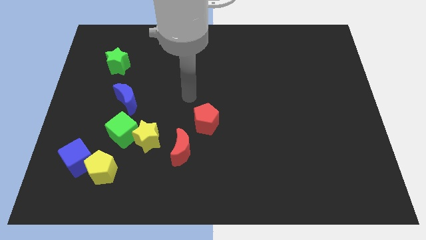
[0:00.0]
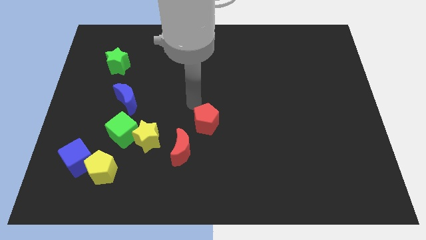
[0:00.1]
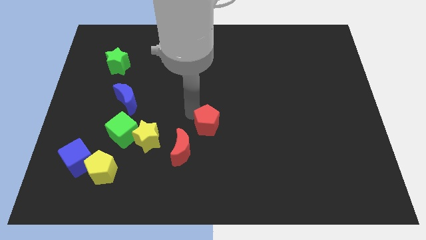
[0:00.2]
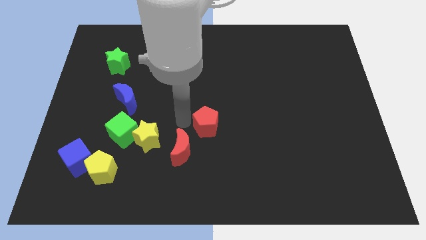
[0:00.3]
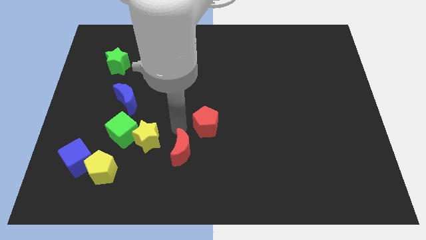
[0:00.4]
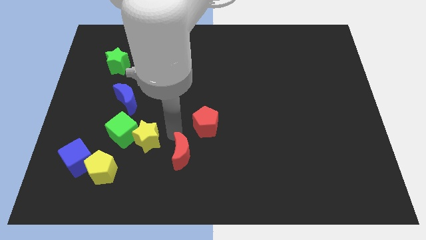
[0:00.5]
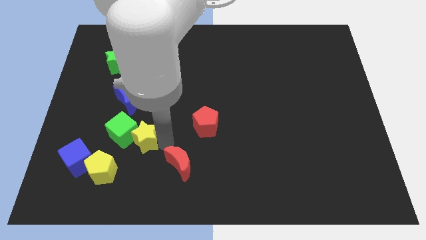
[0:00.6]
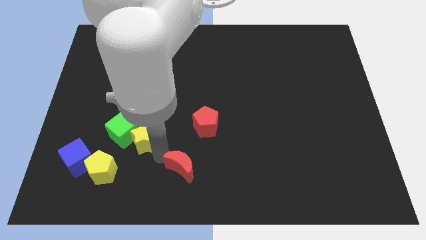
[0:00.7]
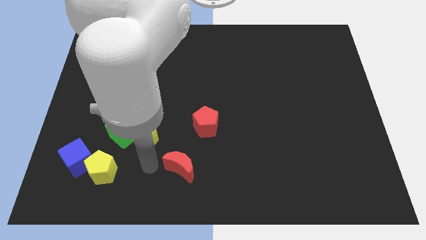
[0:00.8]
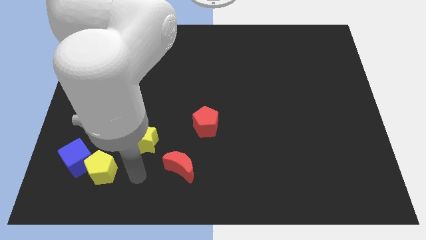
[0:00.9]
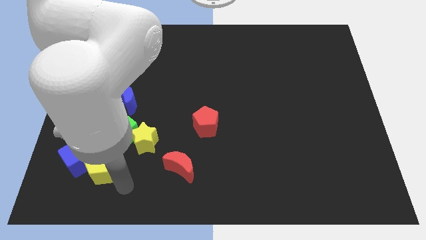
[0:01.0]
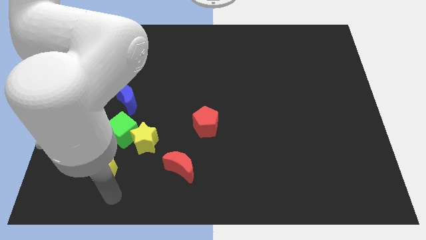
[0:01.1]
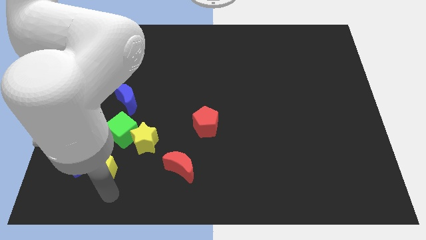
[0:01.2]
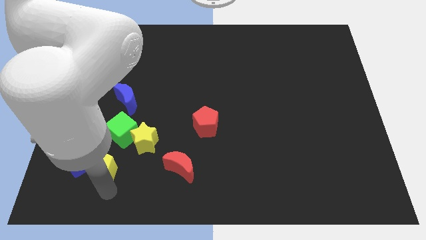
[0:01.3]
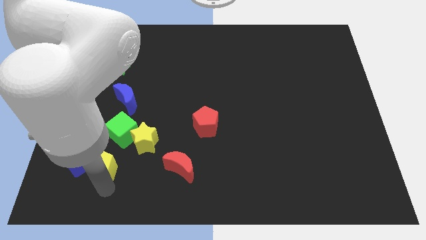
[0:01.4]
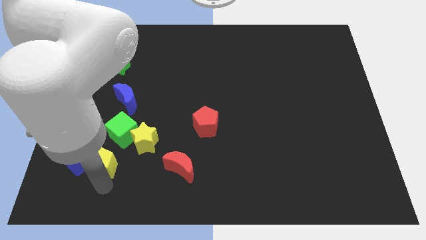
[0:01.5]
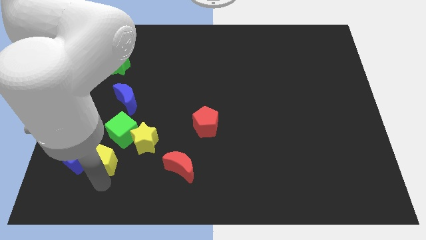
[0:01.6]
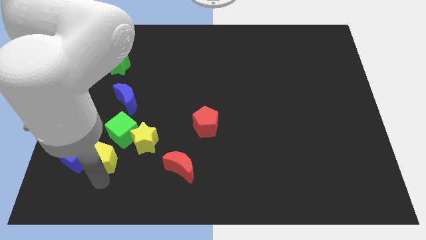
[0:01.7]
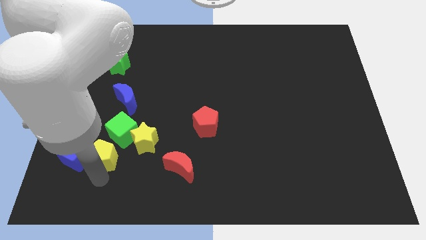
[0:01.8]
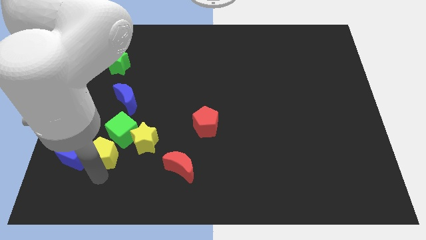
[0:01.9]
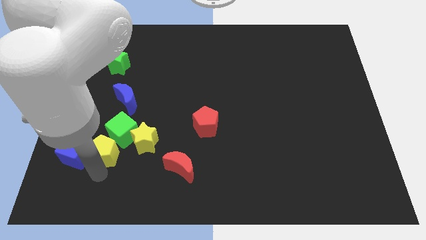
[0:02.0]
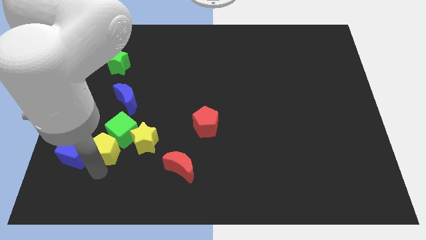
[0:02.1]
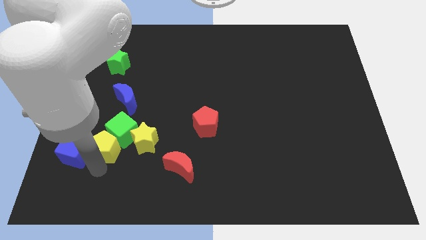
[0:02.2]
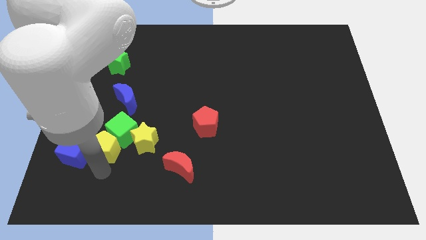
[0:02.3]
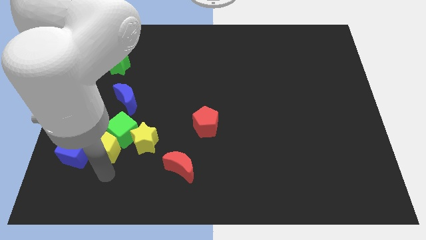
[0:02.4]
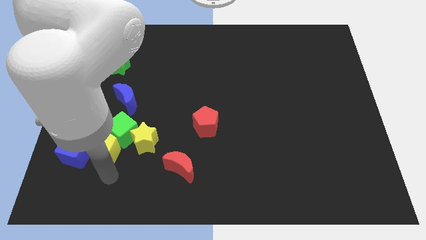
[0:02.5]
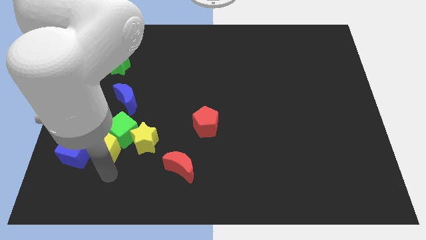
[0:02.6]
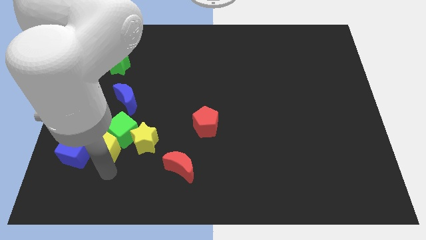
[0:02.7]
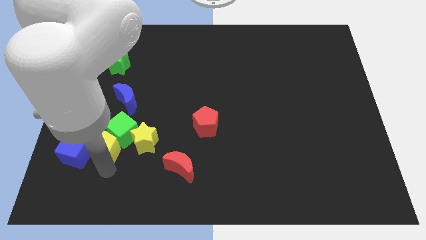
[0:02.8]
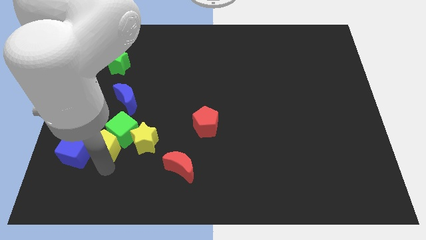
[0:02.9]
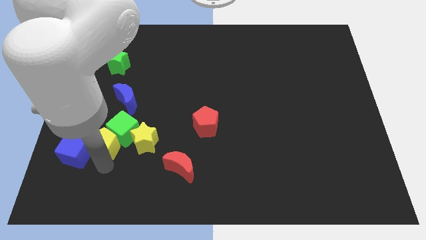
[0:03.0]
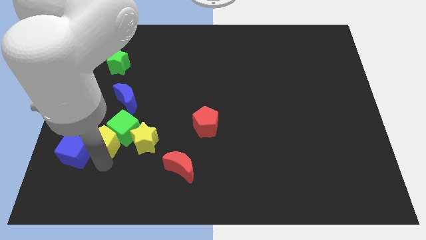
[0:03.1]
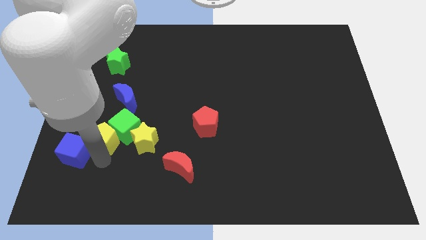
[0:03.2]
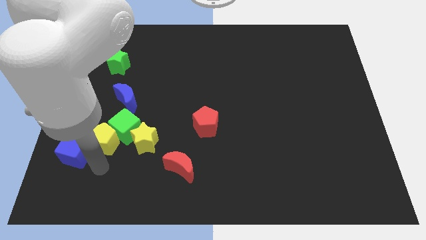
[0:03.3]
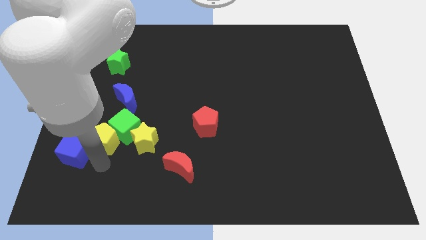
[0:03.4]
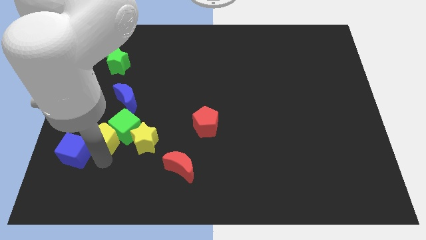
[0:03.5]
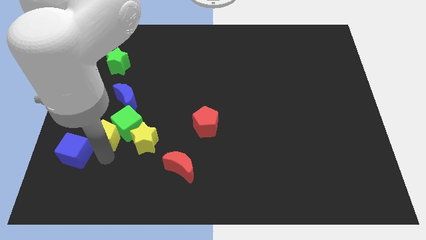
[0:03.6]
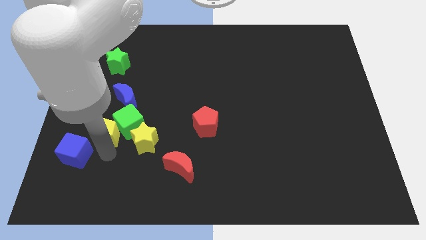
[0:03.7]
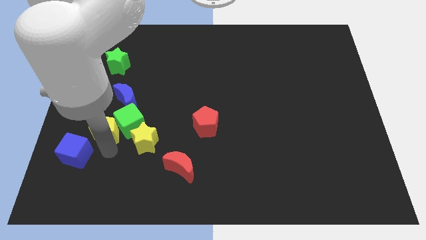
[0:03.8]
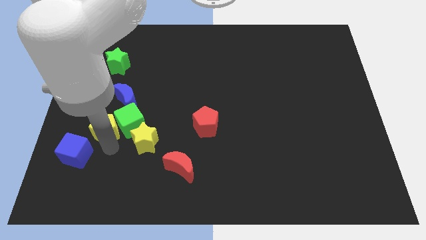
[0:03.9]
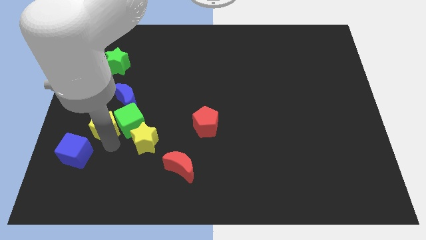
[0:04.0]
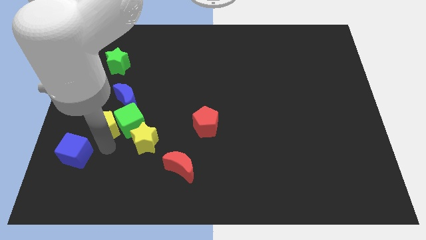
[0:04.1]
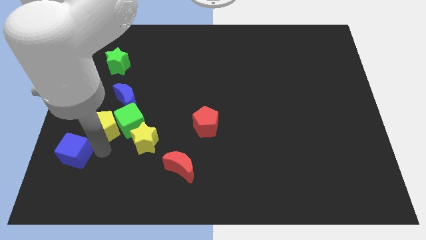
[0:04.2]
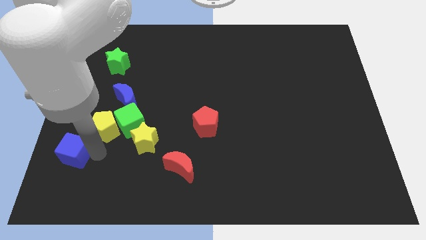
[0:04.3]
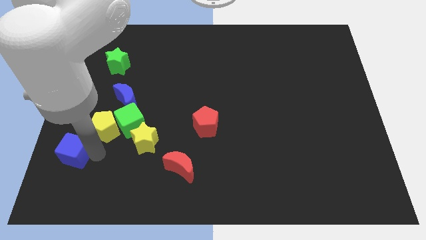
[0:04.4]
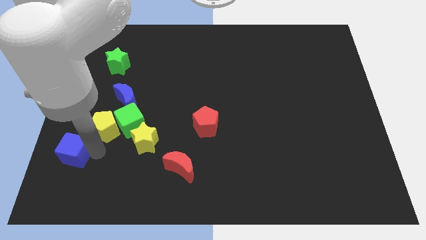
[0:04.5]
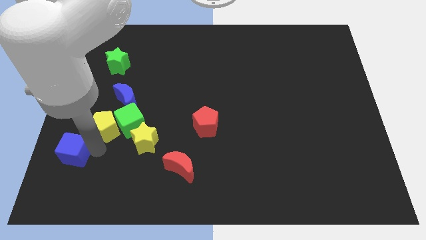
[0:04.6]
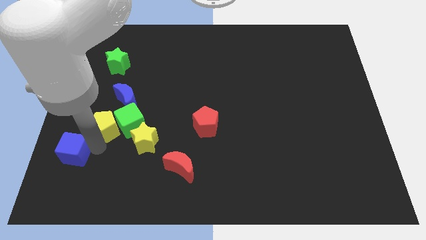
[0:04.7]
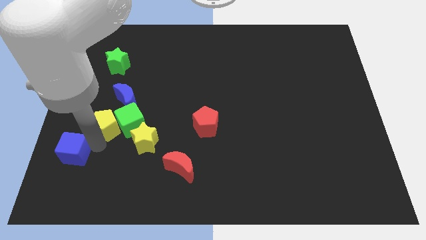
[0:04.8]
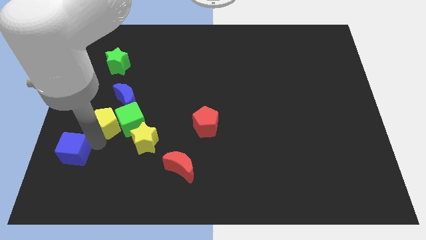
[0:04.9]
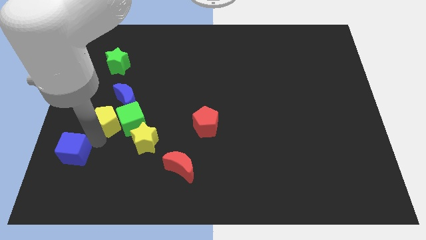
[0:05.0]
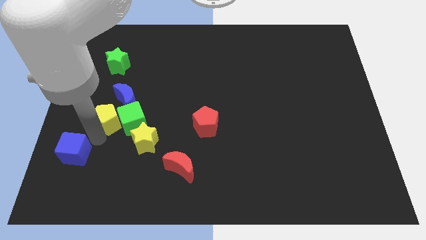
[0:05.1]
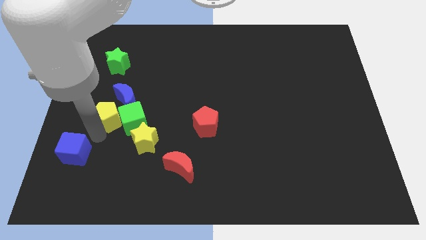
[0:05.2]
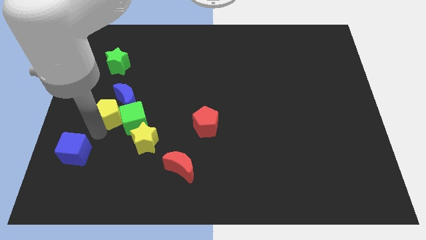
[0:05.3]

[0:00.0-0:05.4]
move the yellow pentagon next to the blue moon

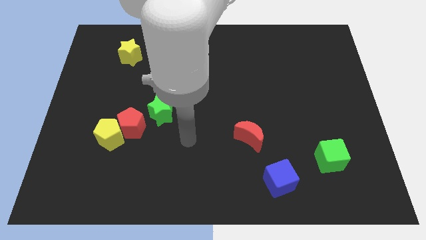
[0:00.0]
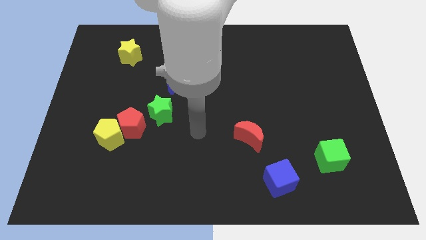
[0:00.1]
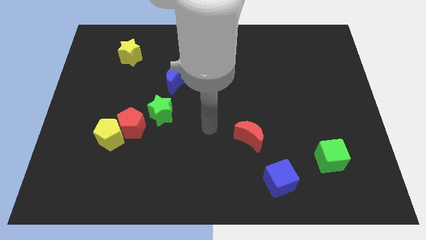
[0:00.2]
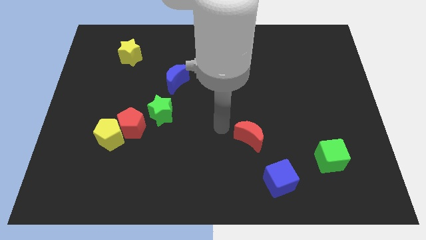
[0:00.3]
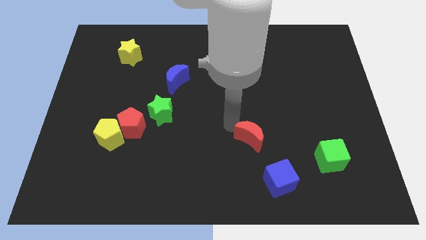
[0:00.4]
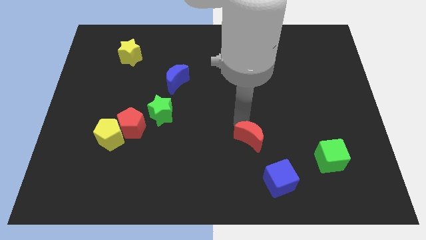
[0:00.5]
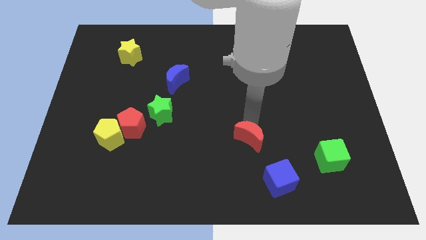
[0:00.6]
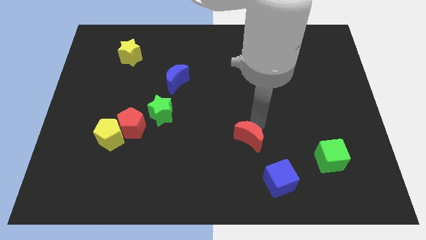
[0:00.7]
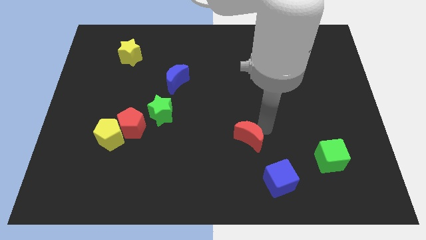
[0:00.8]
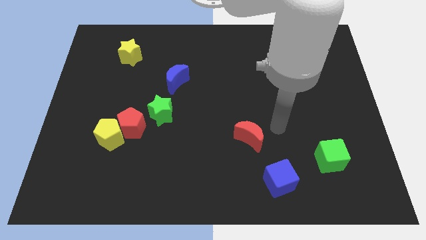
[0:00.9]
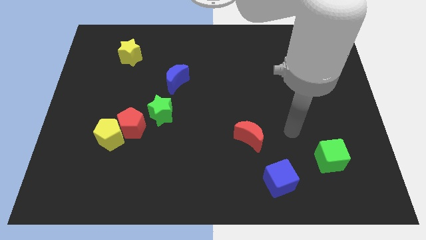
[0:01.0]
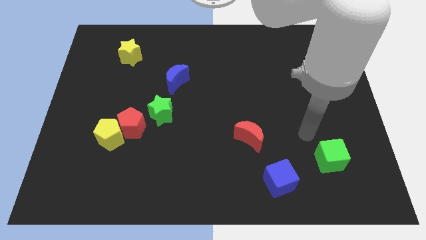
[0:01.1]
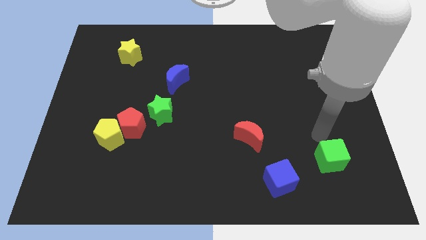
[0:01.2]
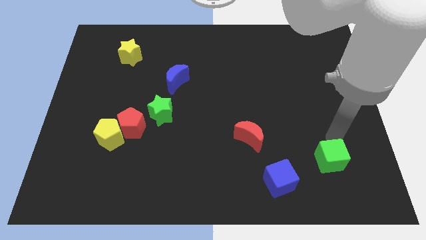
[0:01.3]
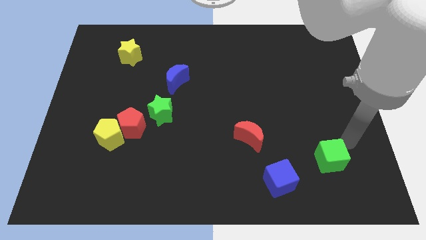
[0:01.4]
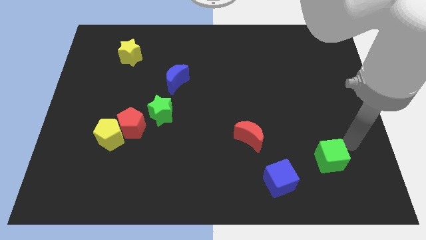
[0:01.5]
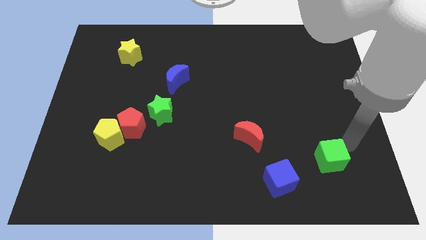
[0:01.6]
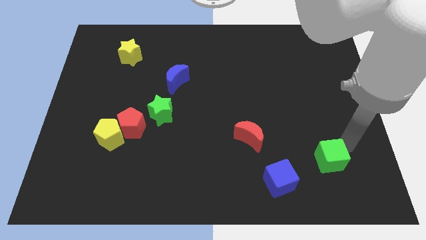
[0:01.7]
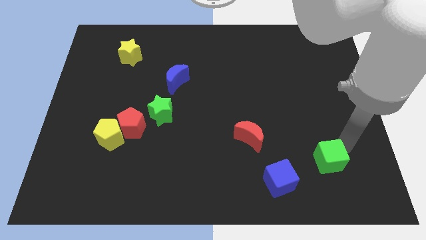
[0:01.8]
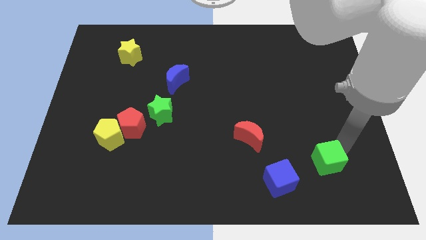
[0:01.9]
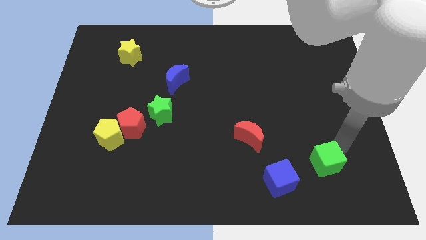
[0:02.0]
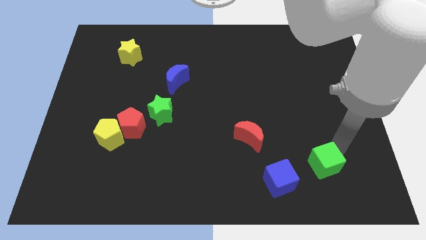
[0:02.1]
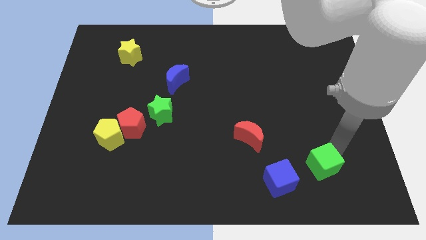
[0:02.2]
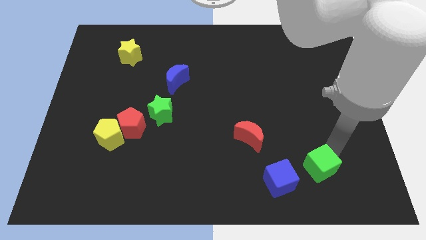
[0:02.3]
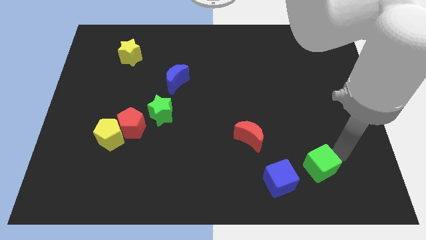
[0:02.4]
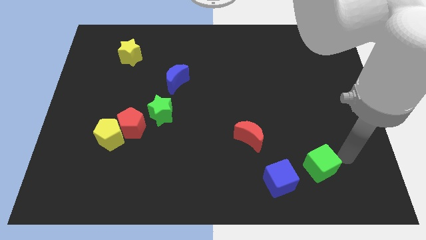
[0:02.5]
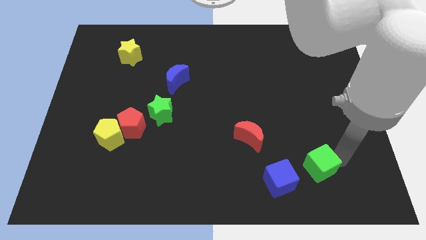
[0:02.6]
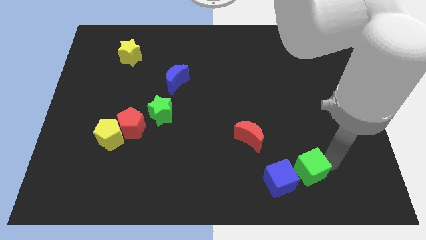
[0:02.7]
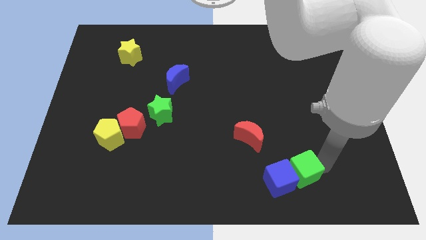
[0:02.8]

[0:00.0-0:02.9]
slide the green cube towards the blue cube
